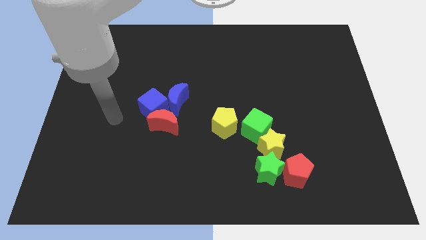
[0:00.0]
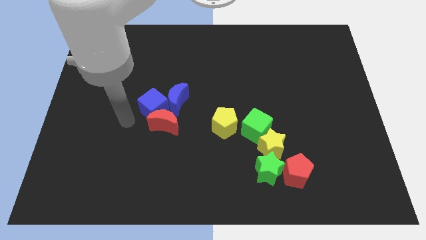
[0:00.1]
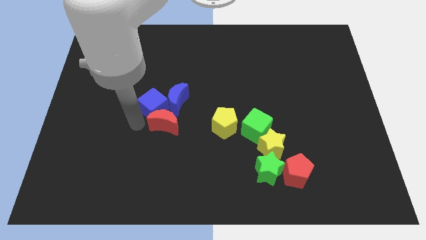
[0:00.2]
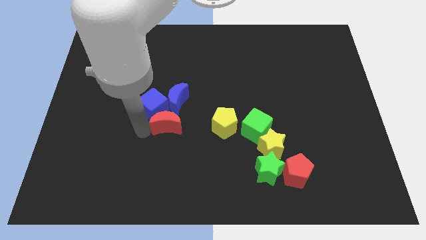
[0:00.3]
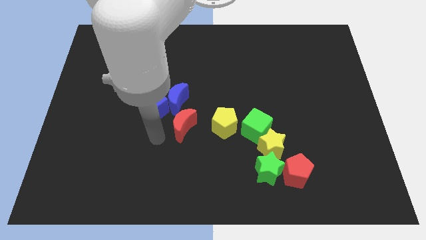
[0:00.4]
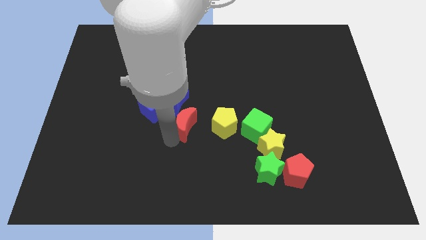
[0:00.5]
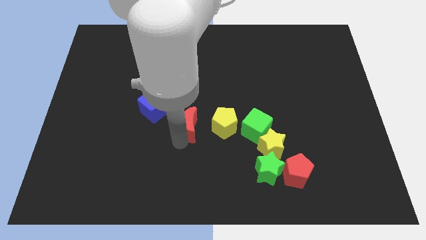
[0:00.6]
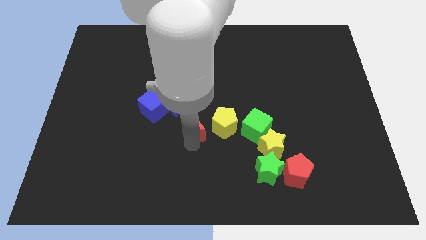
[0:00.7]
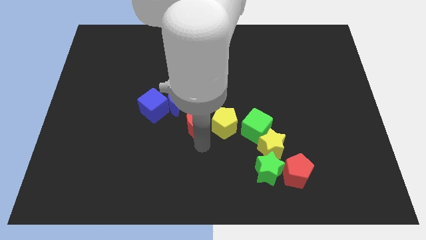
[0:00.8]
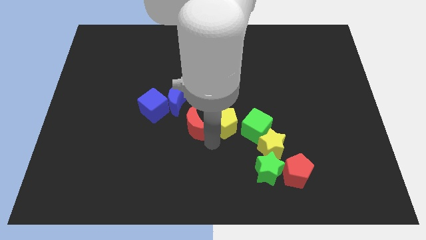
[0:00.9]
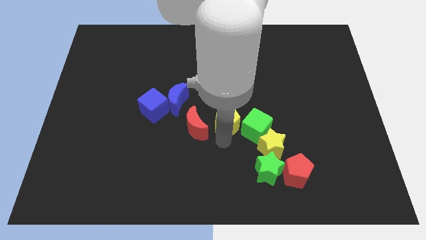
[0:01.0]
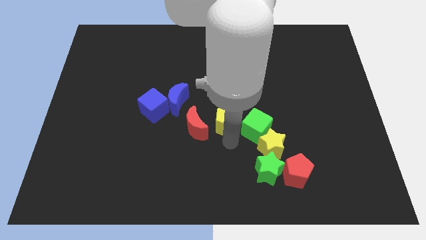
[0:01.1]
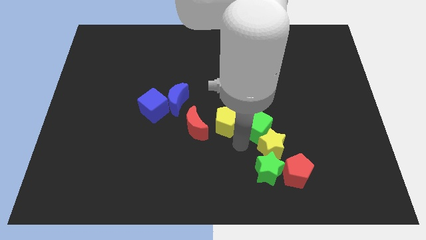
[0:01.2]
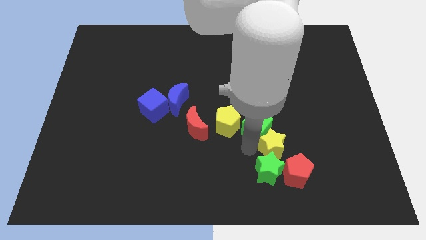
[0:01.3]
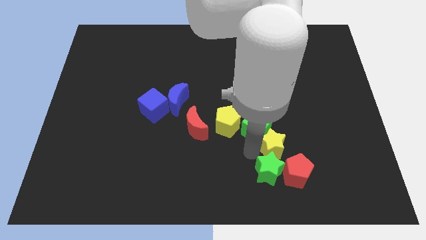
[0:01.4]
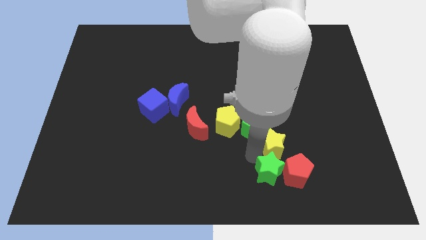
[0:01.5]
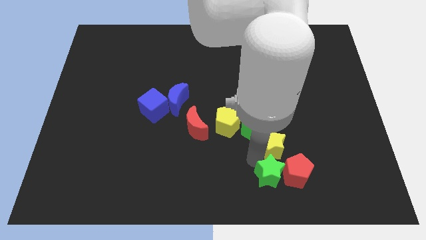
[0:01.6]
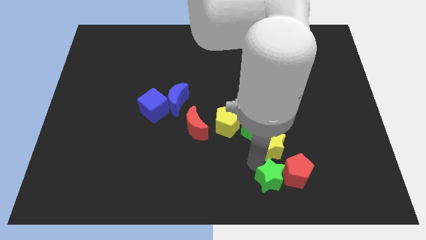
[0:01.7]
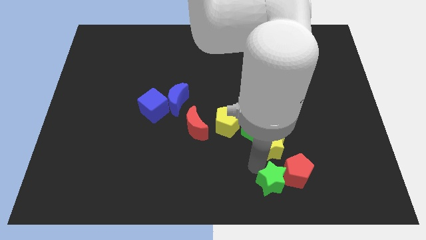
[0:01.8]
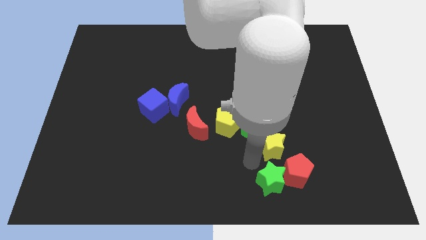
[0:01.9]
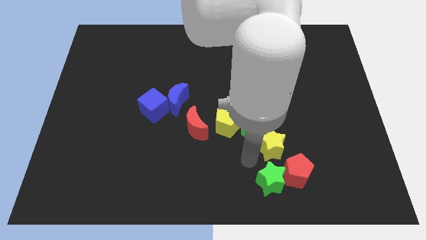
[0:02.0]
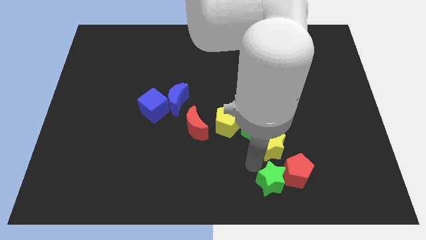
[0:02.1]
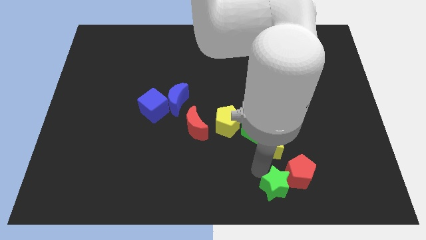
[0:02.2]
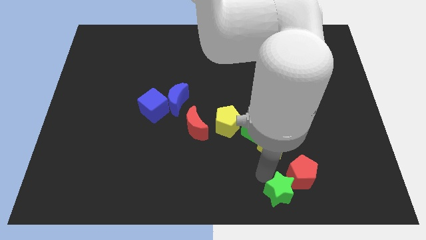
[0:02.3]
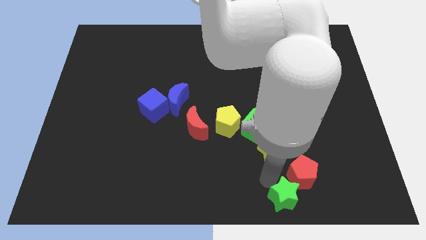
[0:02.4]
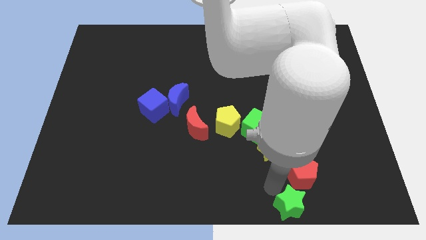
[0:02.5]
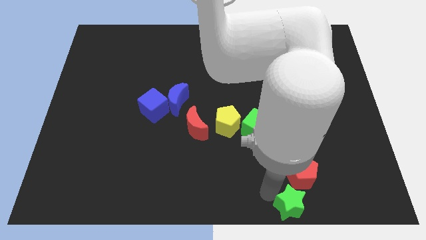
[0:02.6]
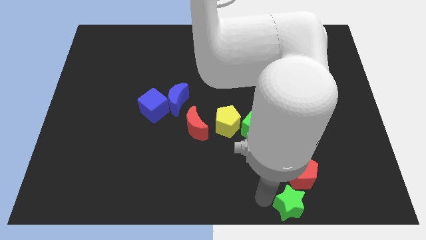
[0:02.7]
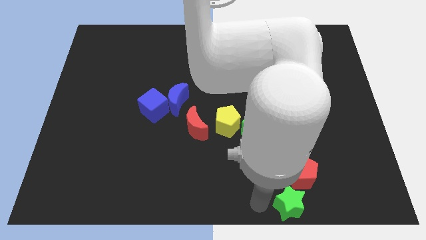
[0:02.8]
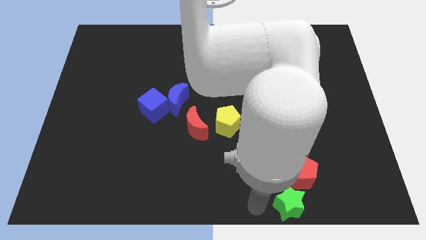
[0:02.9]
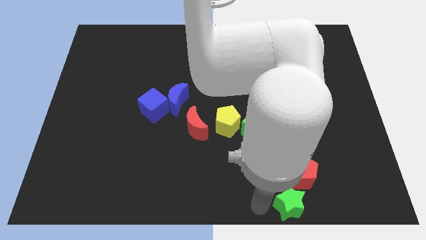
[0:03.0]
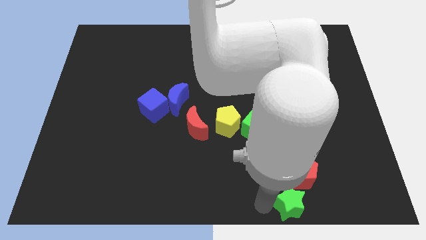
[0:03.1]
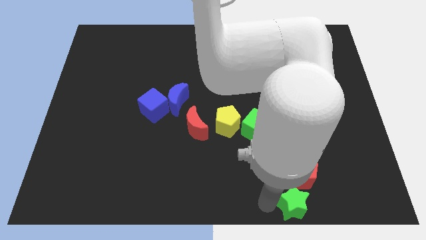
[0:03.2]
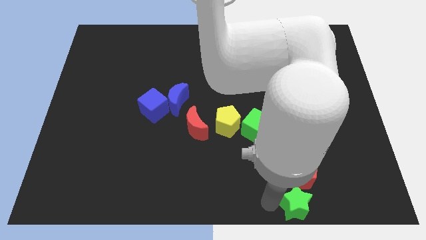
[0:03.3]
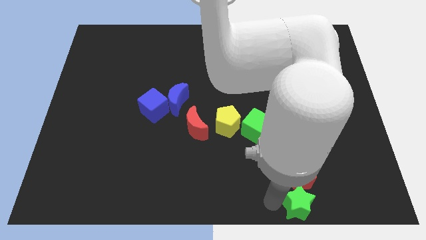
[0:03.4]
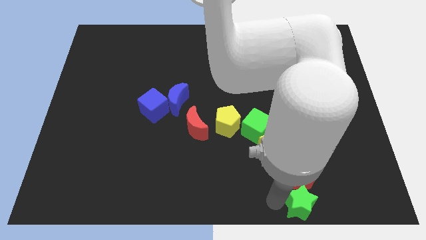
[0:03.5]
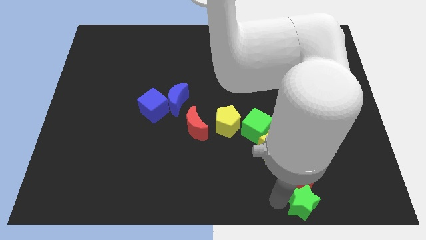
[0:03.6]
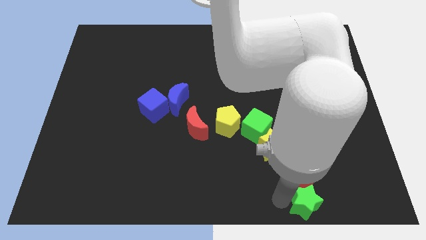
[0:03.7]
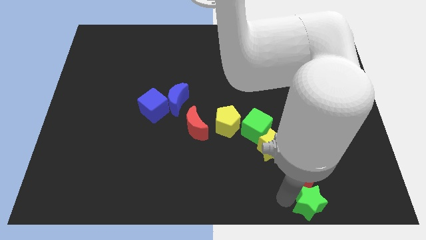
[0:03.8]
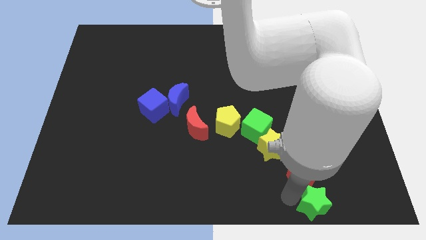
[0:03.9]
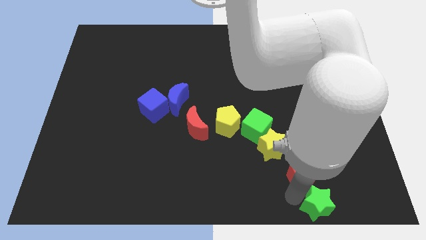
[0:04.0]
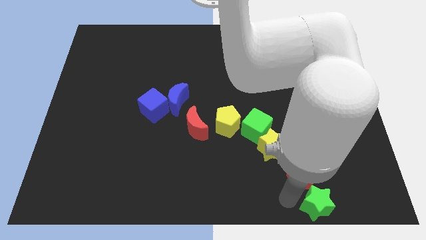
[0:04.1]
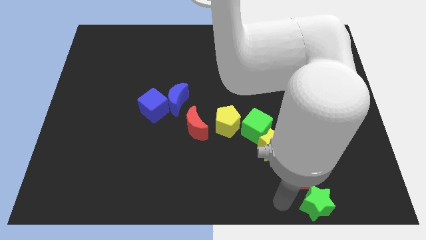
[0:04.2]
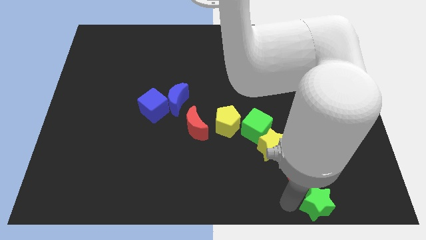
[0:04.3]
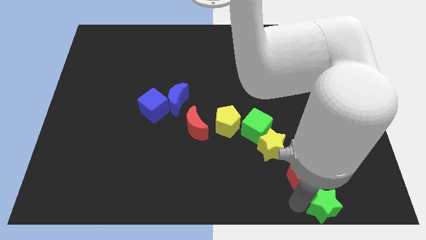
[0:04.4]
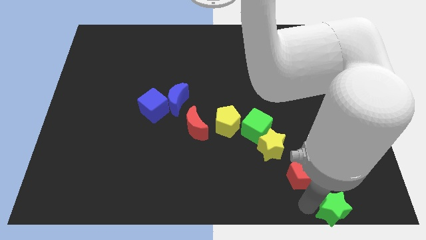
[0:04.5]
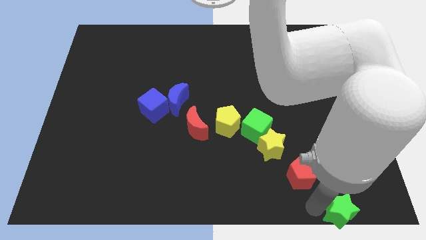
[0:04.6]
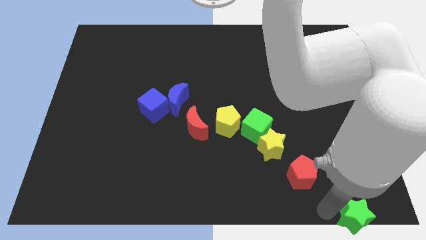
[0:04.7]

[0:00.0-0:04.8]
put the green star to the lower right corner

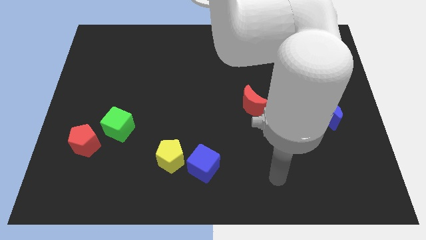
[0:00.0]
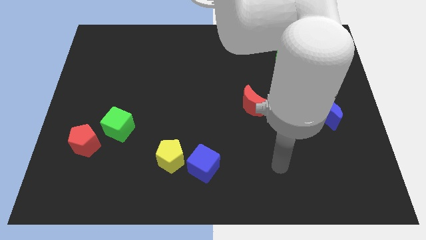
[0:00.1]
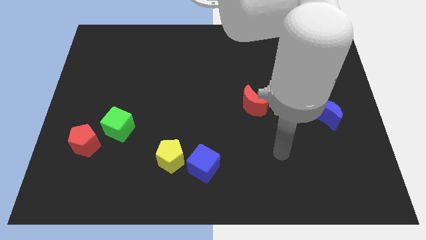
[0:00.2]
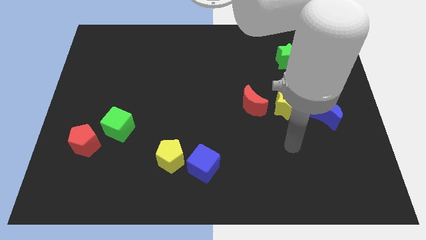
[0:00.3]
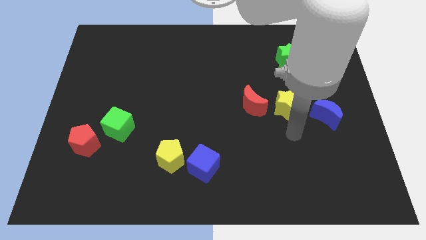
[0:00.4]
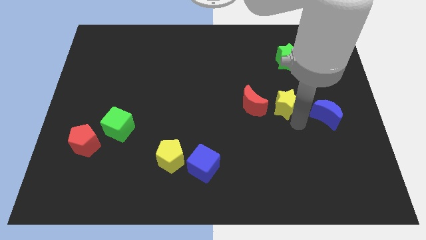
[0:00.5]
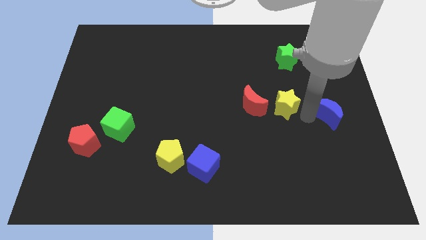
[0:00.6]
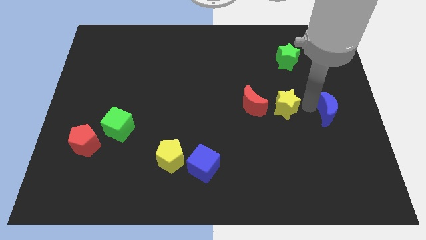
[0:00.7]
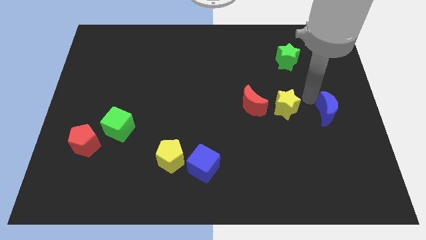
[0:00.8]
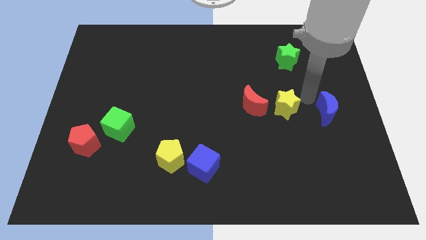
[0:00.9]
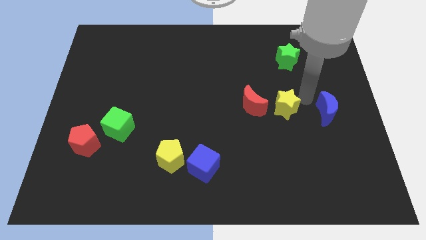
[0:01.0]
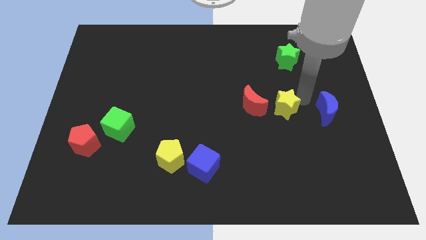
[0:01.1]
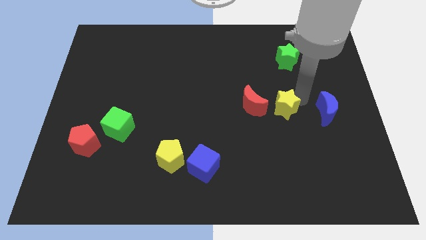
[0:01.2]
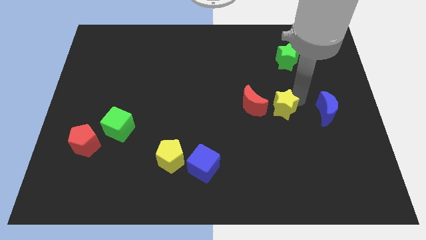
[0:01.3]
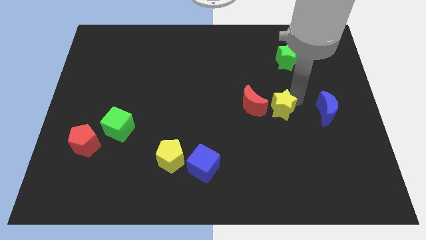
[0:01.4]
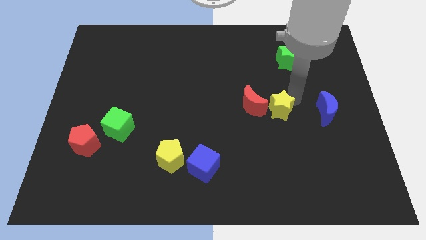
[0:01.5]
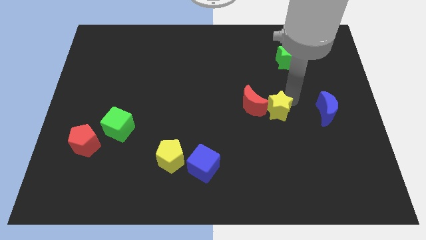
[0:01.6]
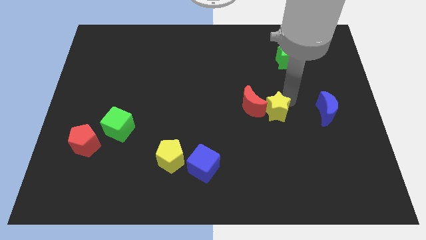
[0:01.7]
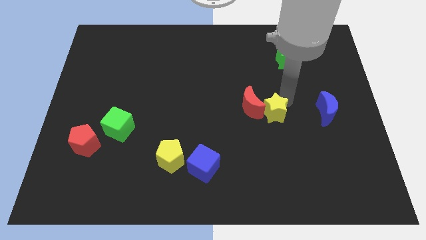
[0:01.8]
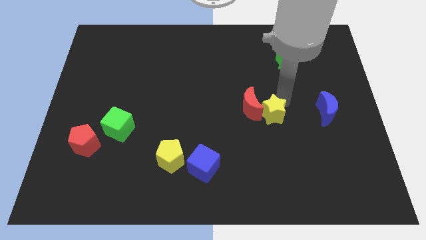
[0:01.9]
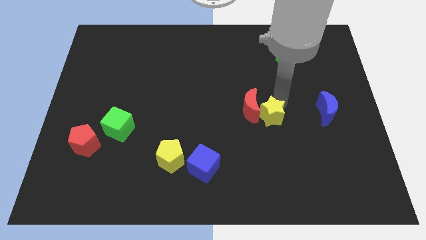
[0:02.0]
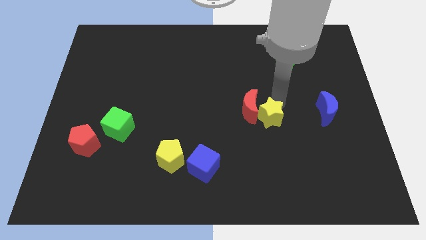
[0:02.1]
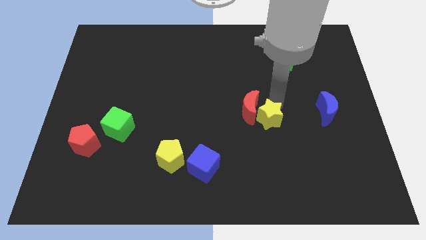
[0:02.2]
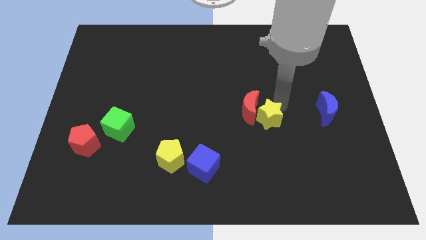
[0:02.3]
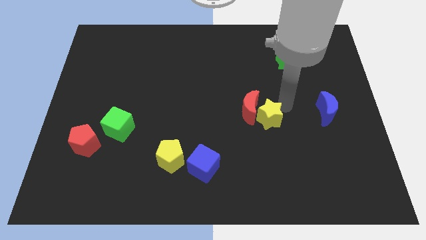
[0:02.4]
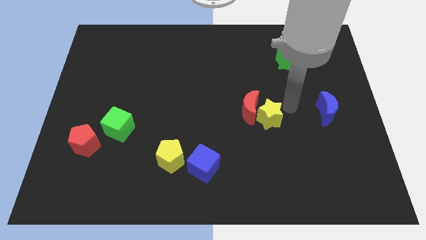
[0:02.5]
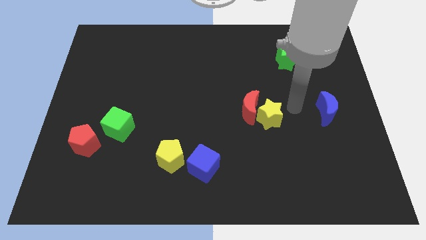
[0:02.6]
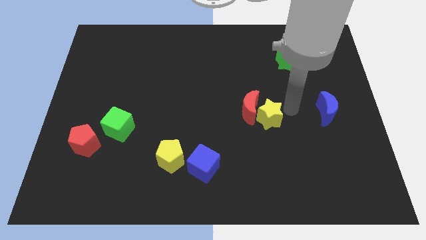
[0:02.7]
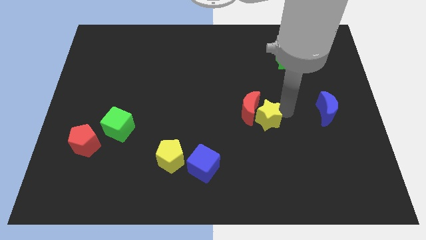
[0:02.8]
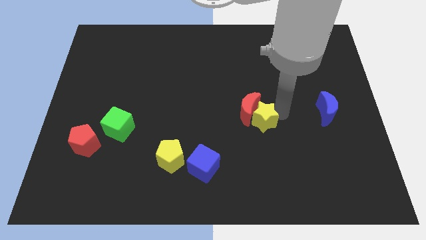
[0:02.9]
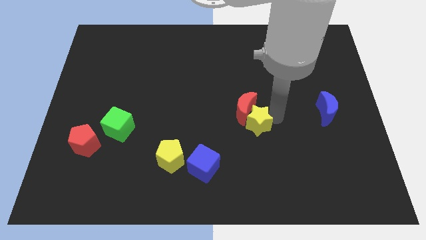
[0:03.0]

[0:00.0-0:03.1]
push the yellow star to the center
